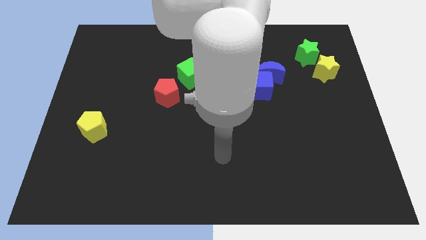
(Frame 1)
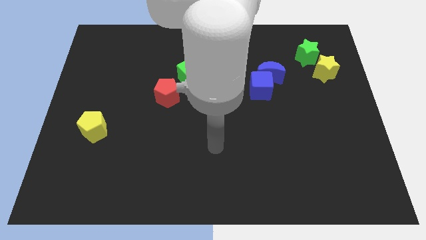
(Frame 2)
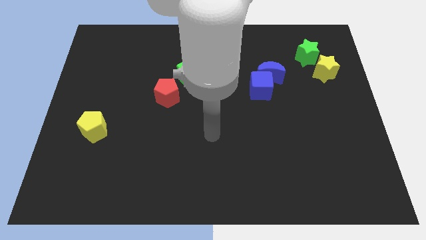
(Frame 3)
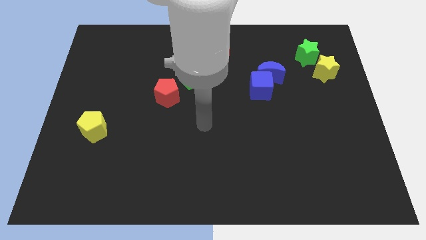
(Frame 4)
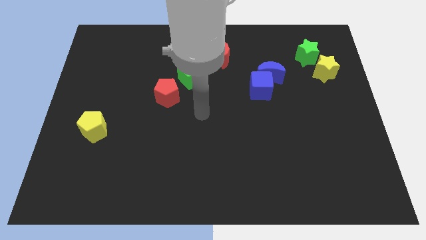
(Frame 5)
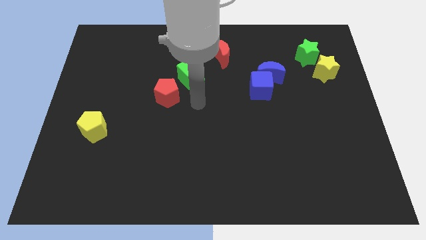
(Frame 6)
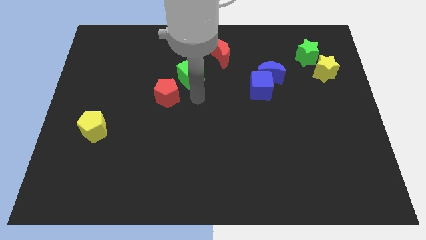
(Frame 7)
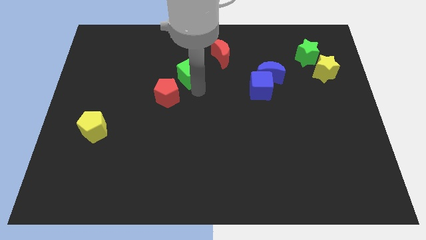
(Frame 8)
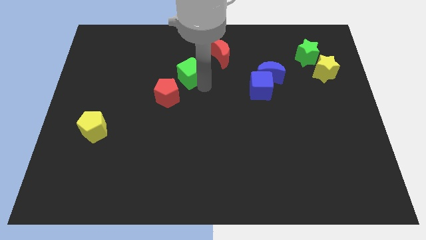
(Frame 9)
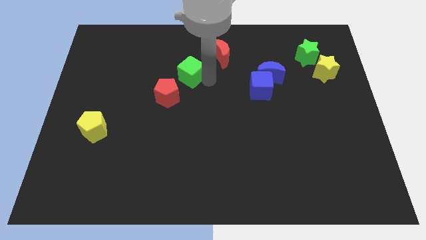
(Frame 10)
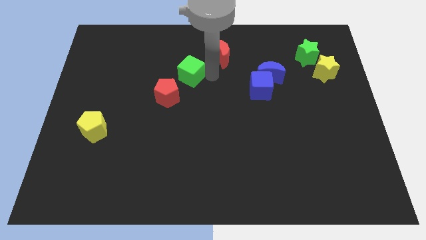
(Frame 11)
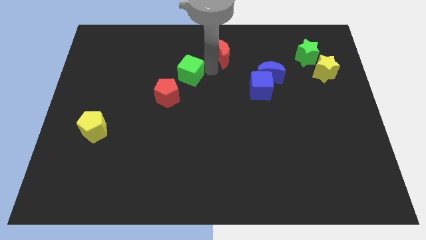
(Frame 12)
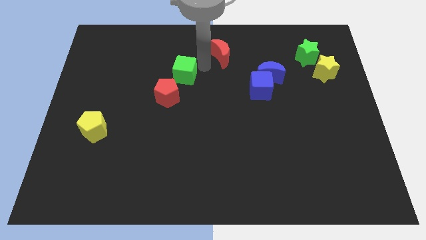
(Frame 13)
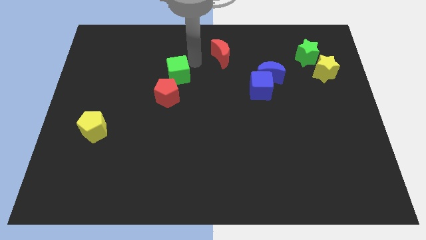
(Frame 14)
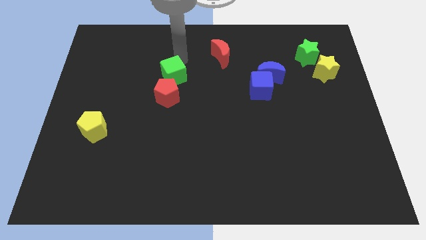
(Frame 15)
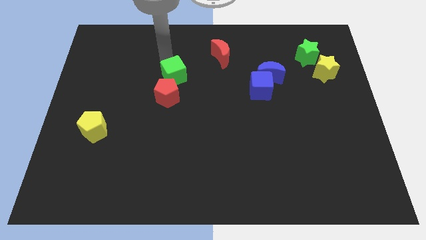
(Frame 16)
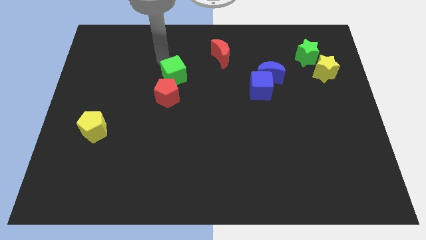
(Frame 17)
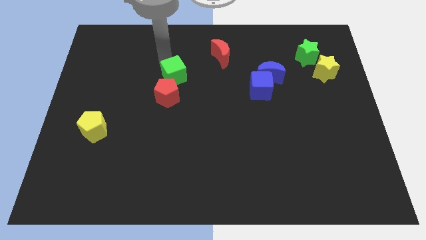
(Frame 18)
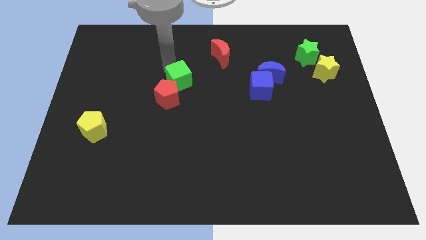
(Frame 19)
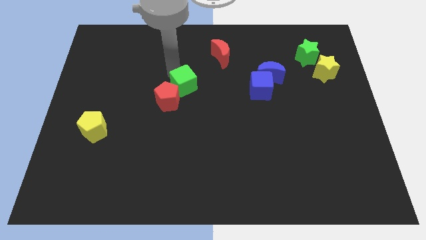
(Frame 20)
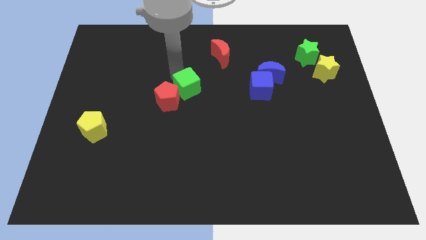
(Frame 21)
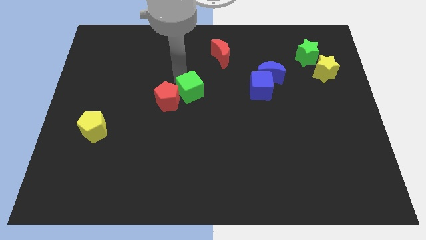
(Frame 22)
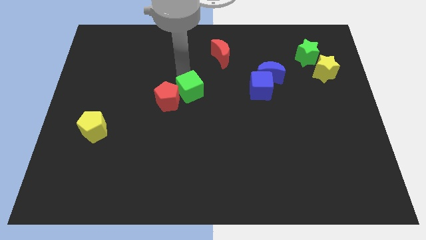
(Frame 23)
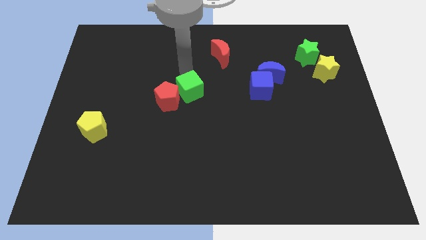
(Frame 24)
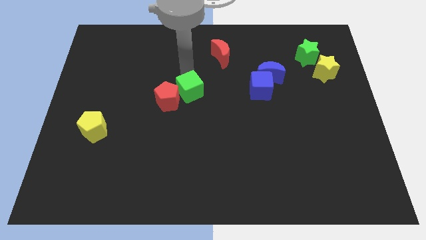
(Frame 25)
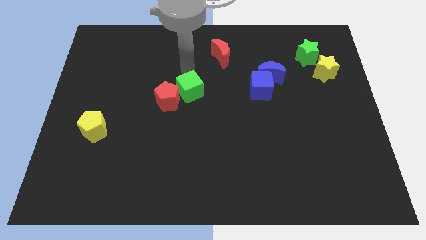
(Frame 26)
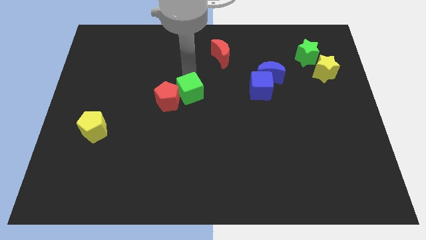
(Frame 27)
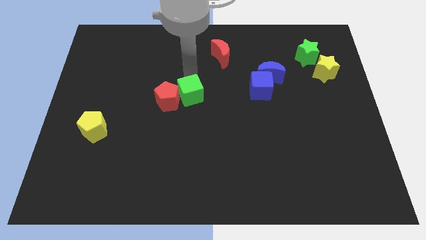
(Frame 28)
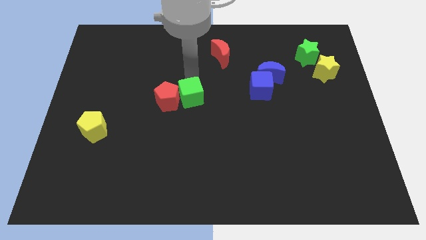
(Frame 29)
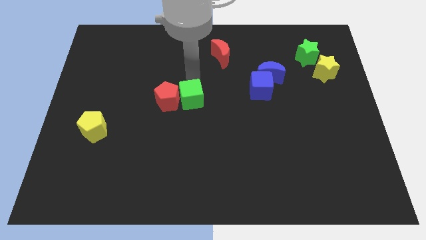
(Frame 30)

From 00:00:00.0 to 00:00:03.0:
slightly push the green cube downwards

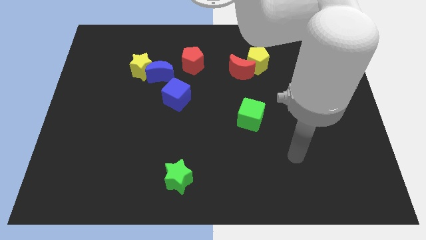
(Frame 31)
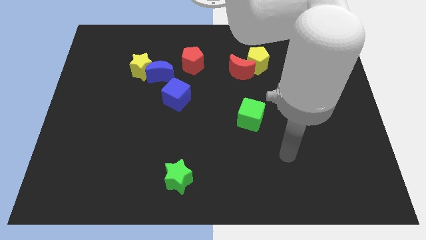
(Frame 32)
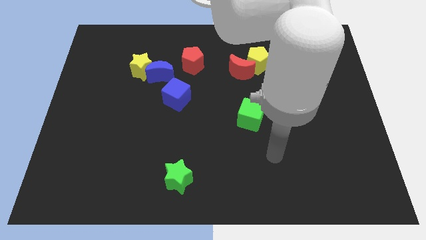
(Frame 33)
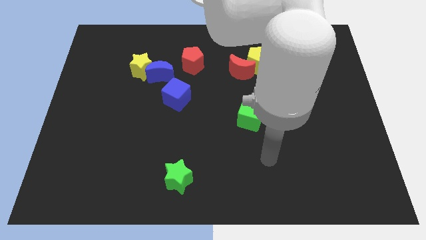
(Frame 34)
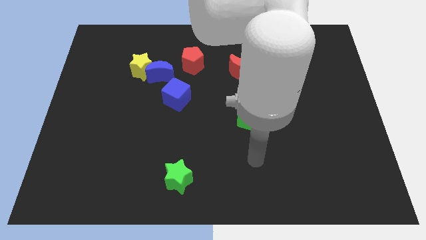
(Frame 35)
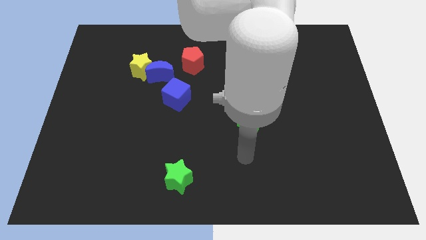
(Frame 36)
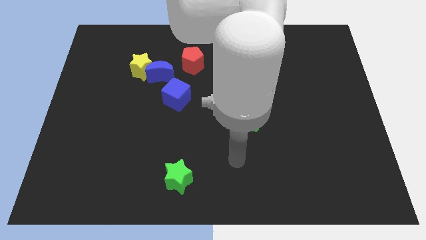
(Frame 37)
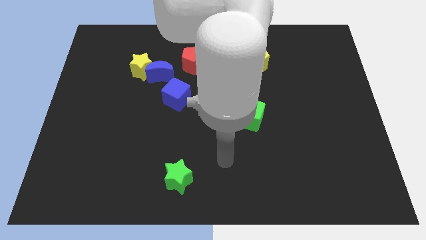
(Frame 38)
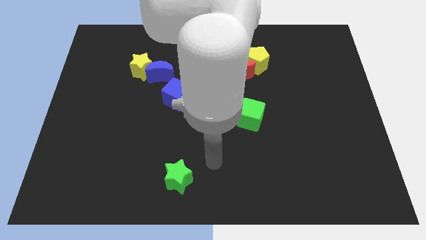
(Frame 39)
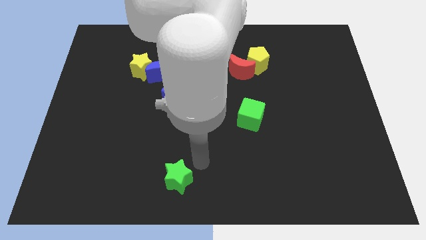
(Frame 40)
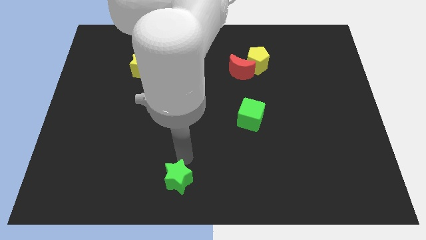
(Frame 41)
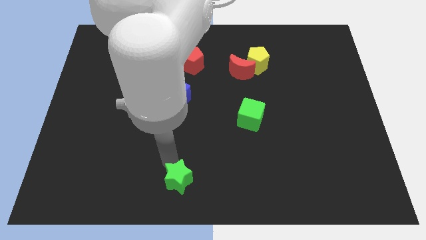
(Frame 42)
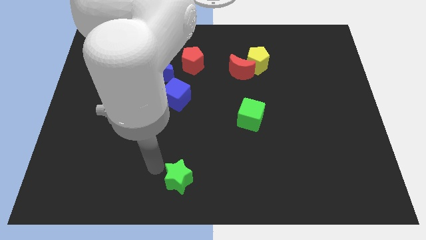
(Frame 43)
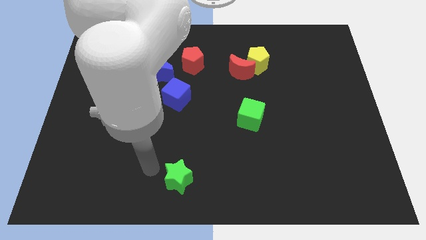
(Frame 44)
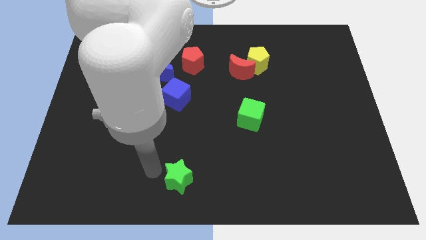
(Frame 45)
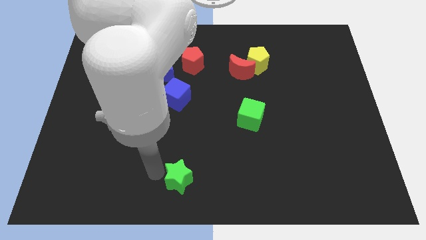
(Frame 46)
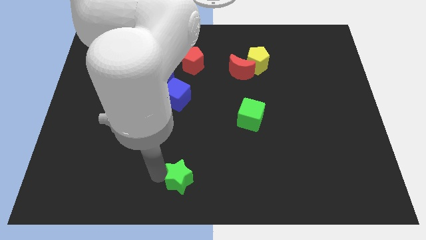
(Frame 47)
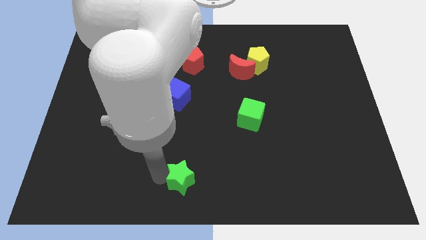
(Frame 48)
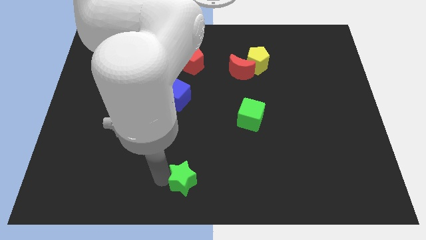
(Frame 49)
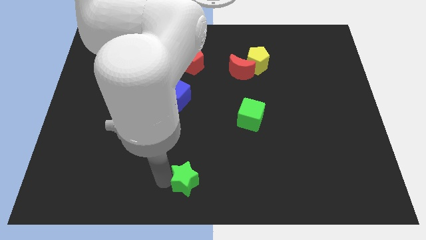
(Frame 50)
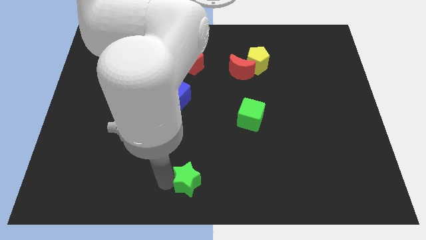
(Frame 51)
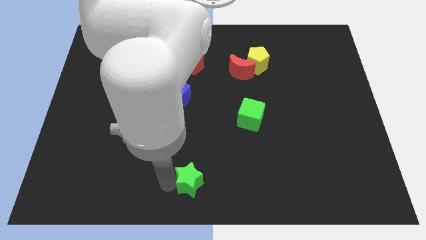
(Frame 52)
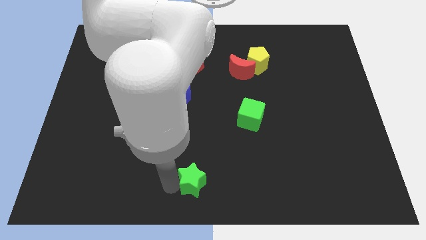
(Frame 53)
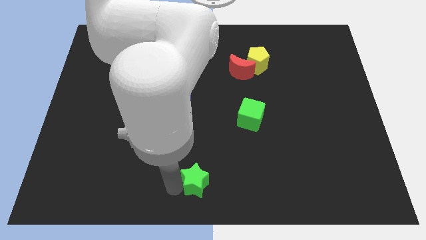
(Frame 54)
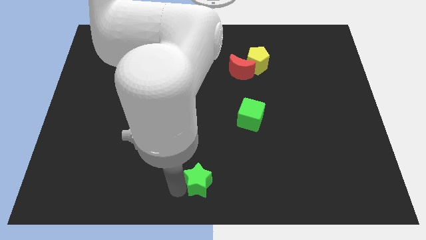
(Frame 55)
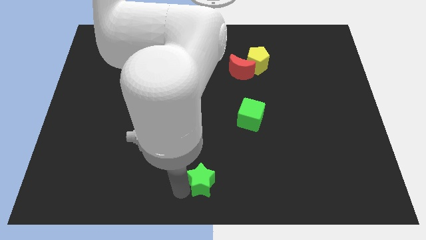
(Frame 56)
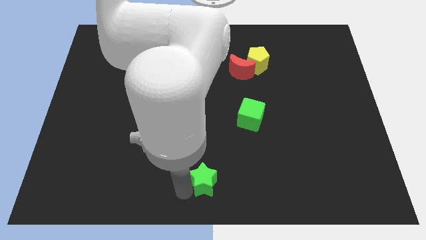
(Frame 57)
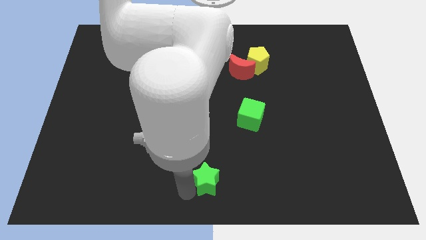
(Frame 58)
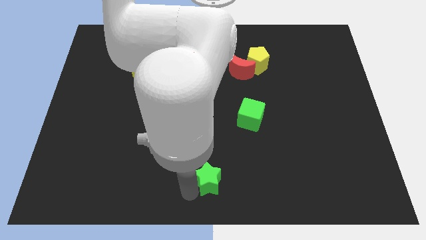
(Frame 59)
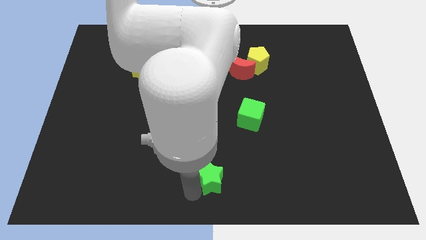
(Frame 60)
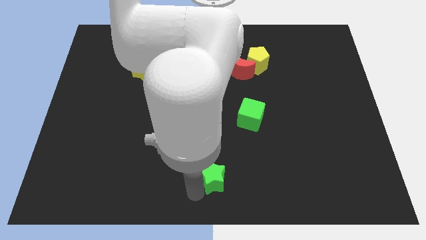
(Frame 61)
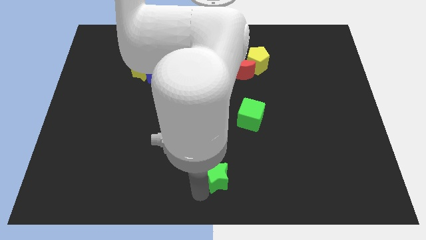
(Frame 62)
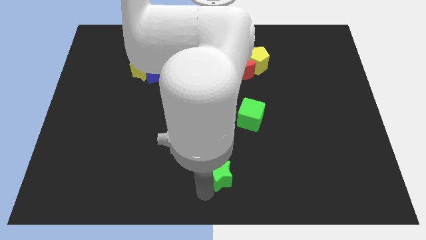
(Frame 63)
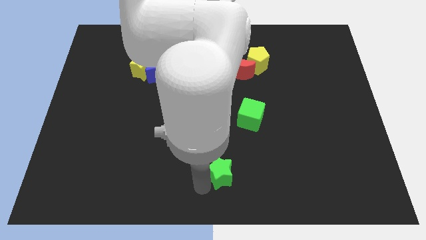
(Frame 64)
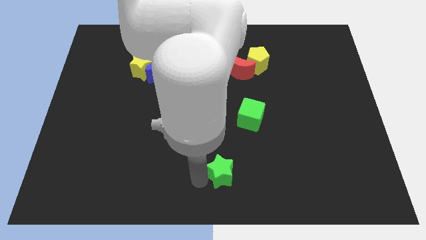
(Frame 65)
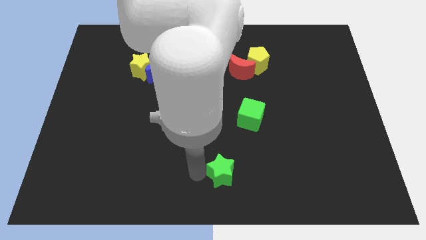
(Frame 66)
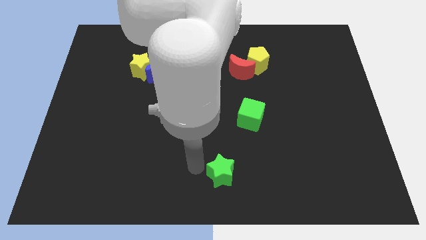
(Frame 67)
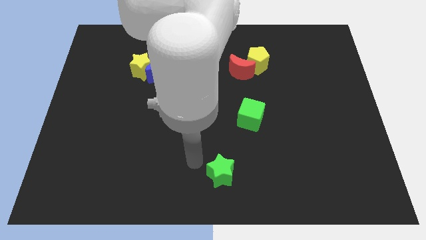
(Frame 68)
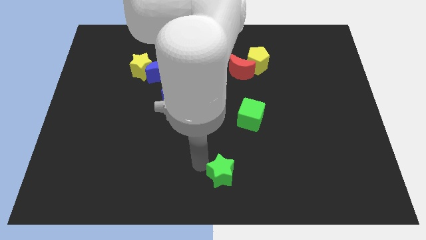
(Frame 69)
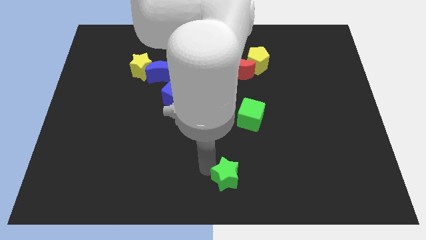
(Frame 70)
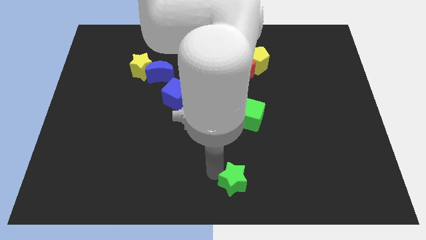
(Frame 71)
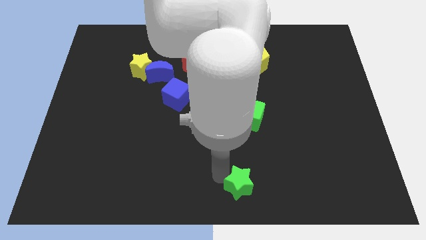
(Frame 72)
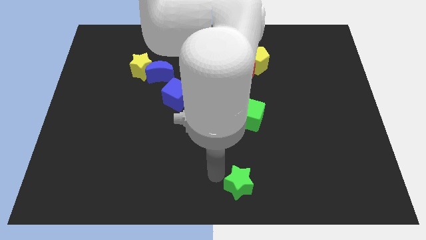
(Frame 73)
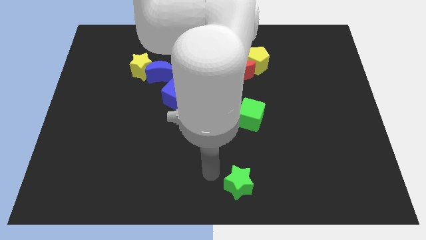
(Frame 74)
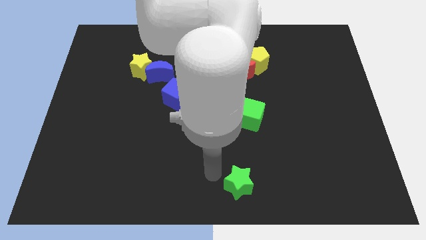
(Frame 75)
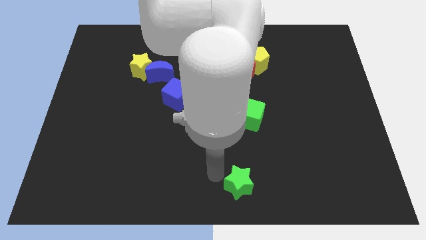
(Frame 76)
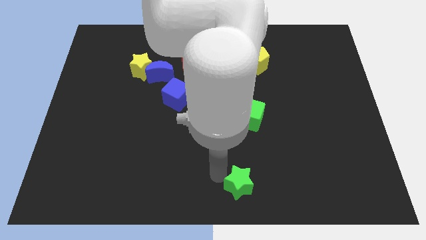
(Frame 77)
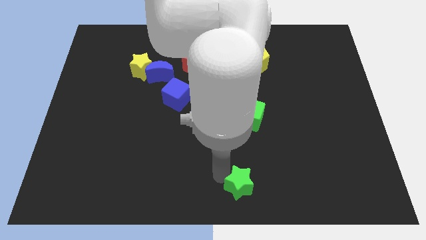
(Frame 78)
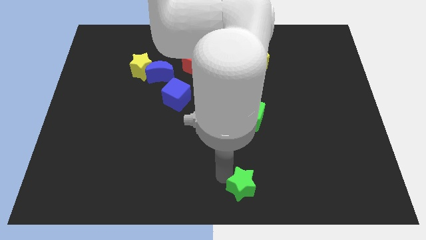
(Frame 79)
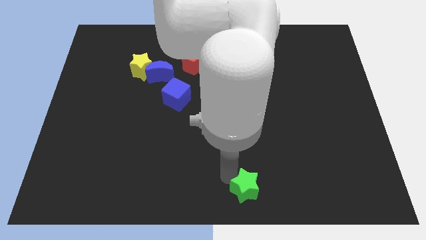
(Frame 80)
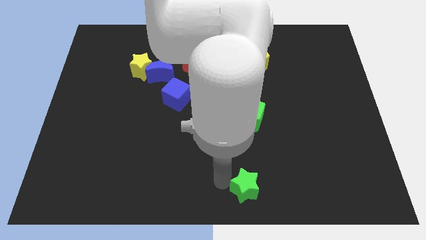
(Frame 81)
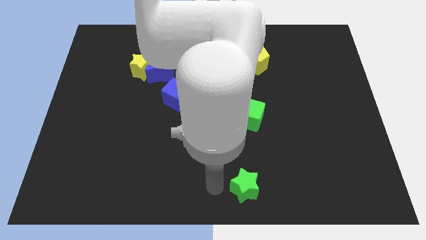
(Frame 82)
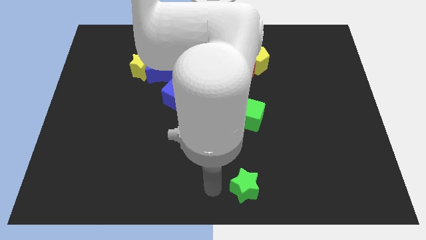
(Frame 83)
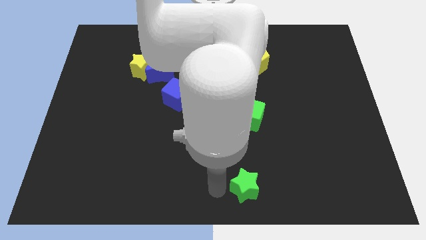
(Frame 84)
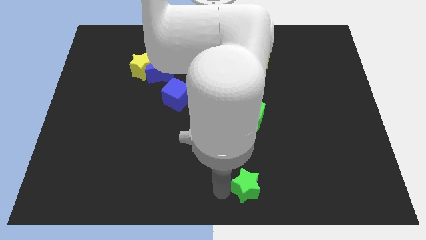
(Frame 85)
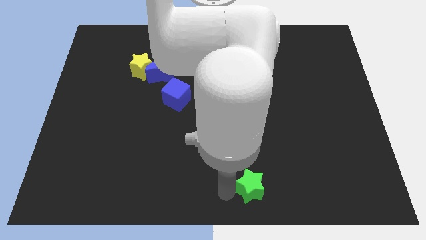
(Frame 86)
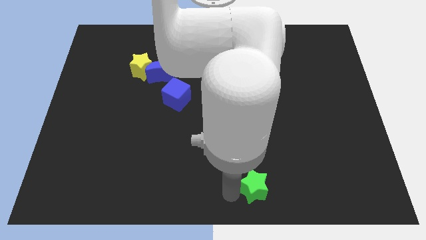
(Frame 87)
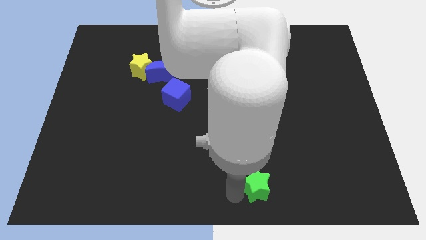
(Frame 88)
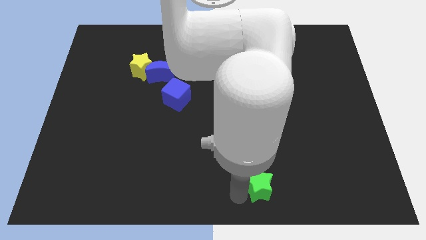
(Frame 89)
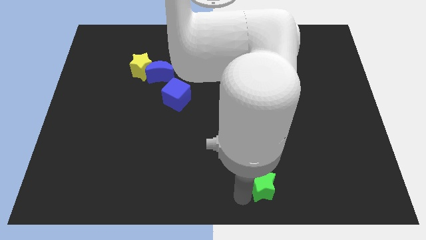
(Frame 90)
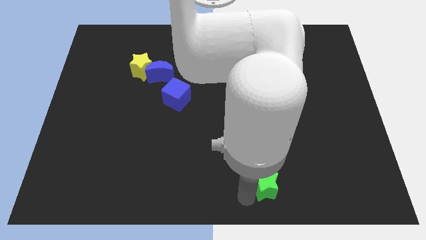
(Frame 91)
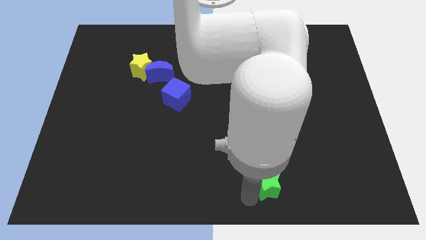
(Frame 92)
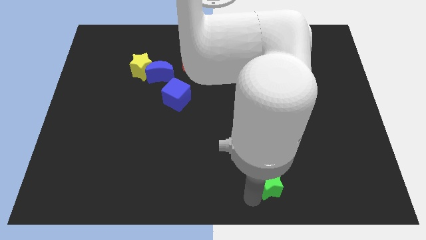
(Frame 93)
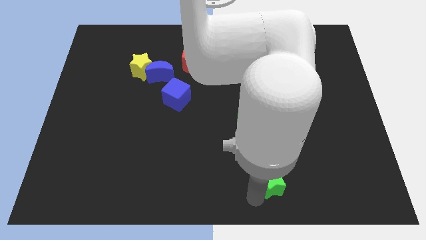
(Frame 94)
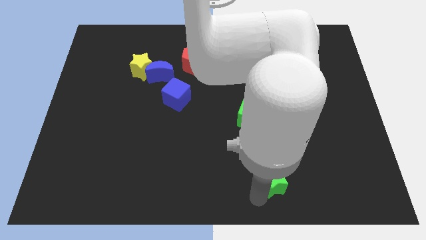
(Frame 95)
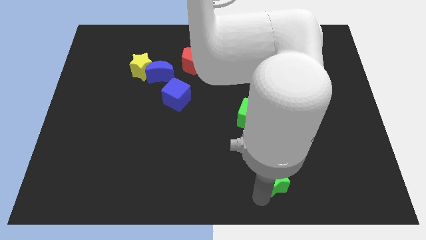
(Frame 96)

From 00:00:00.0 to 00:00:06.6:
push the green star right
